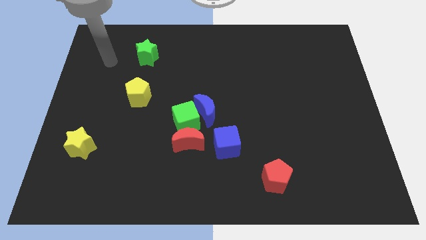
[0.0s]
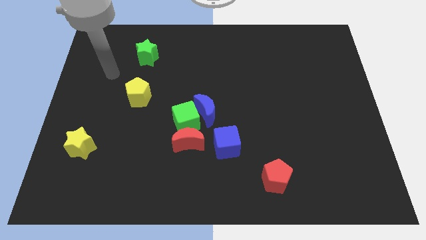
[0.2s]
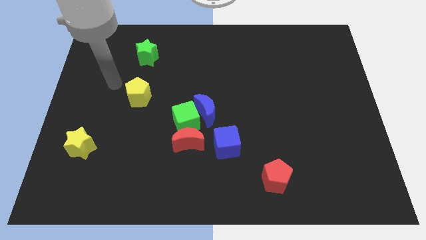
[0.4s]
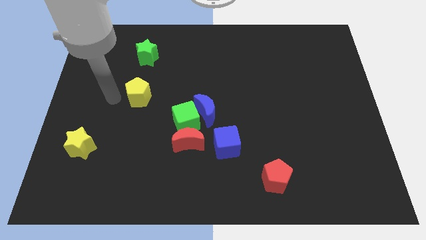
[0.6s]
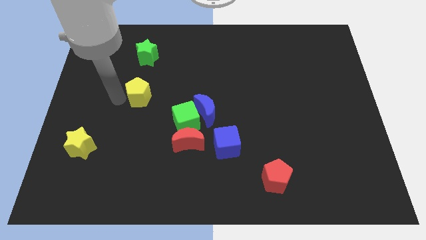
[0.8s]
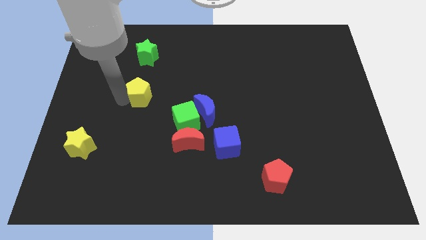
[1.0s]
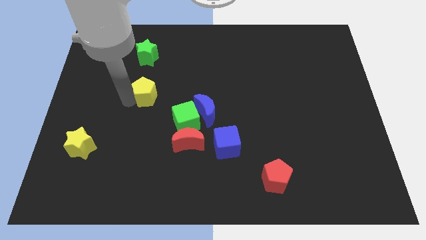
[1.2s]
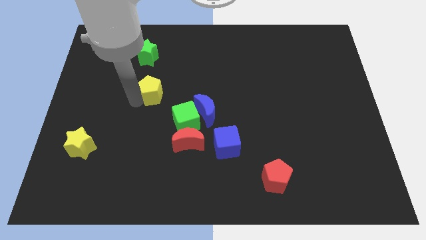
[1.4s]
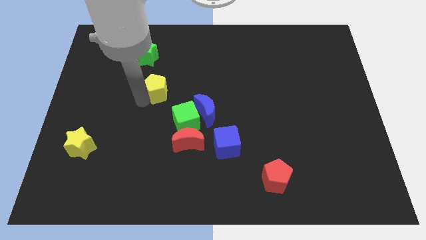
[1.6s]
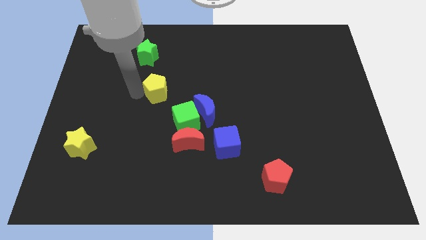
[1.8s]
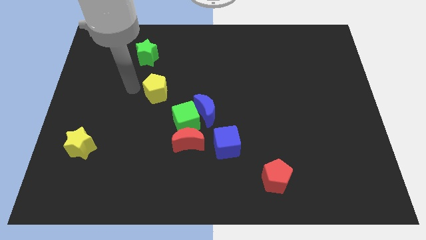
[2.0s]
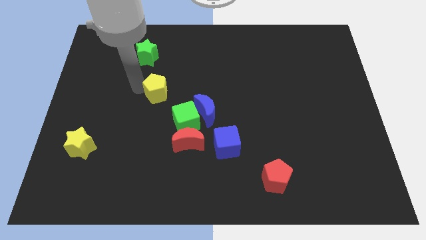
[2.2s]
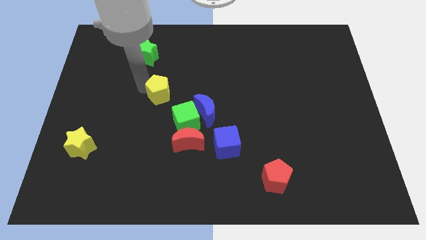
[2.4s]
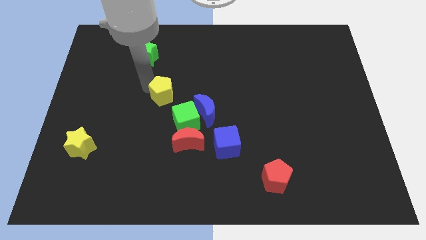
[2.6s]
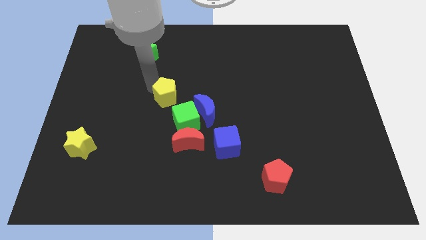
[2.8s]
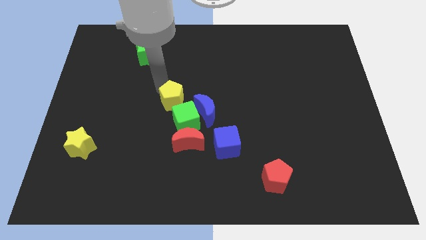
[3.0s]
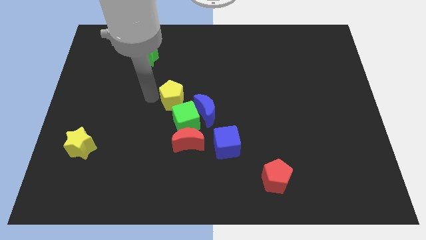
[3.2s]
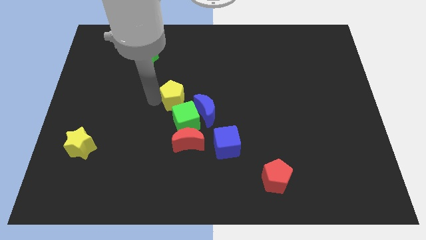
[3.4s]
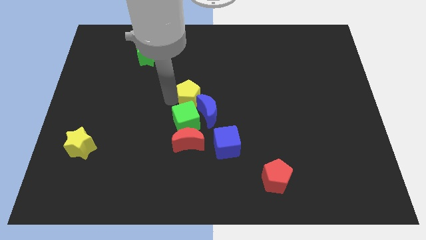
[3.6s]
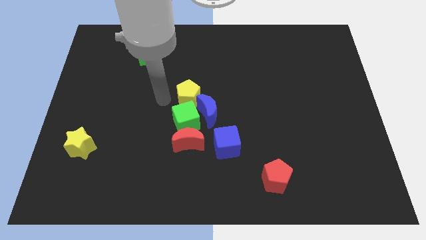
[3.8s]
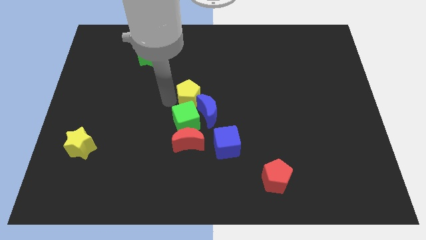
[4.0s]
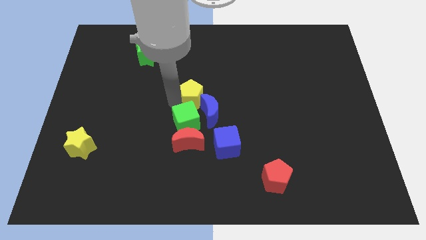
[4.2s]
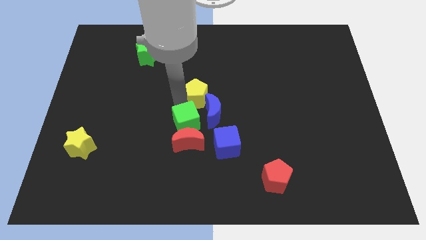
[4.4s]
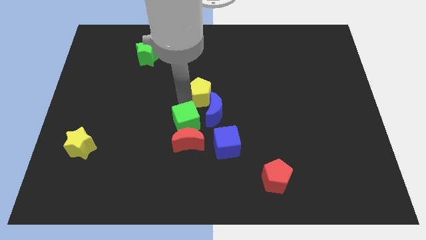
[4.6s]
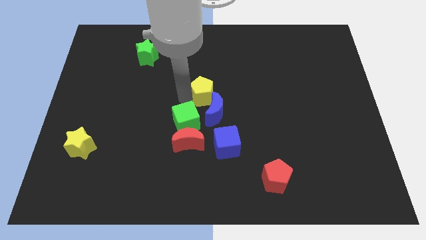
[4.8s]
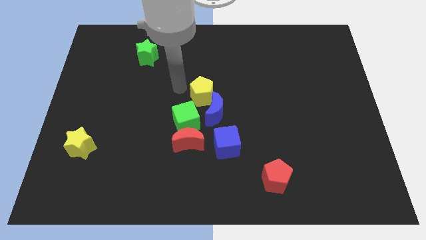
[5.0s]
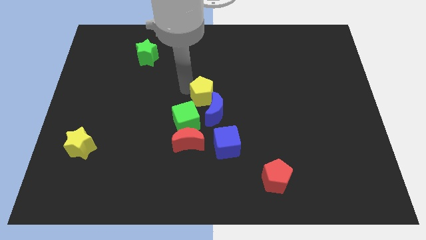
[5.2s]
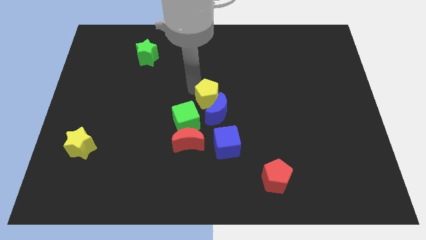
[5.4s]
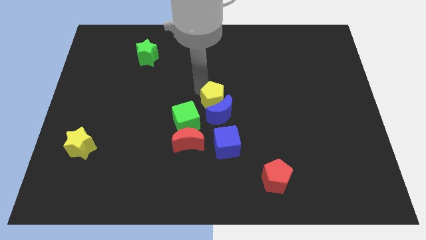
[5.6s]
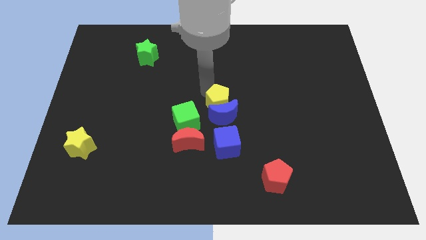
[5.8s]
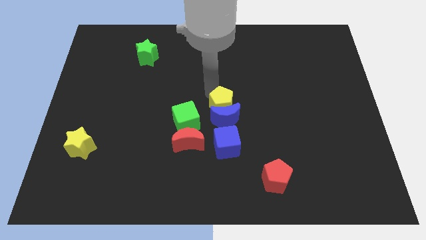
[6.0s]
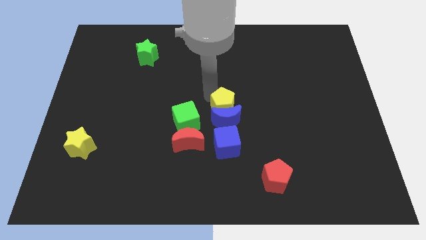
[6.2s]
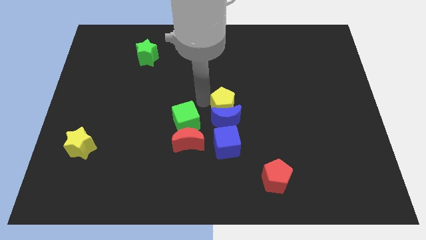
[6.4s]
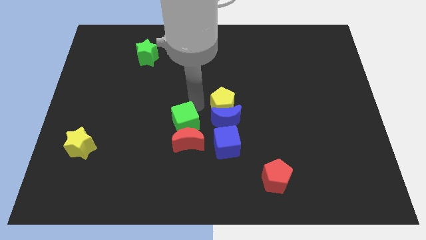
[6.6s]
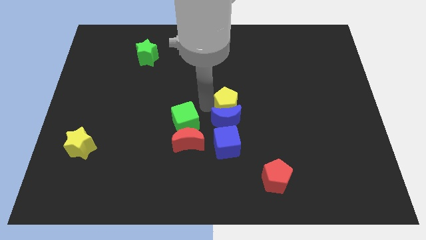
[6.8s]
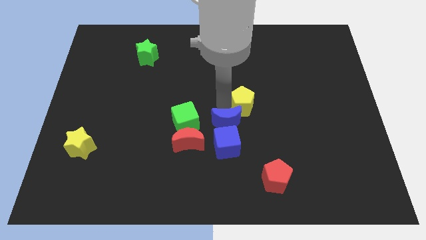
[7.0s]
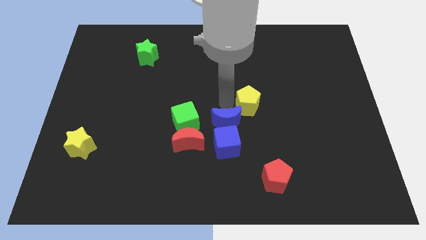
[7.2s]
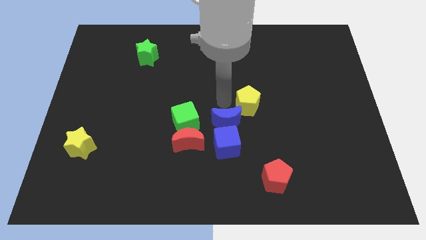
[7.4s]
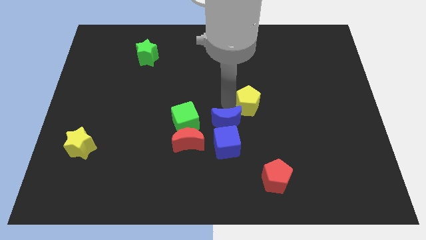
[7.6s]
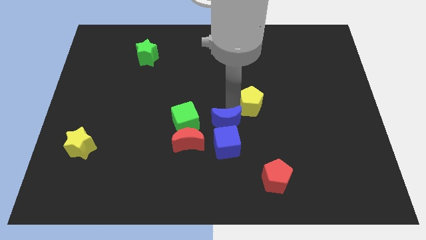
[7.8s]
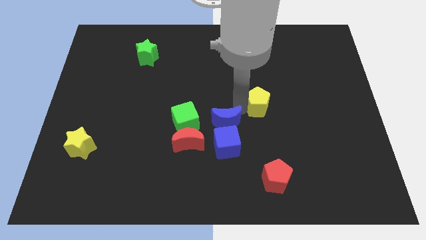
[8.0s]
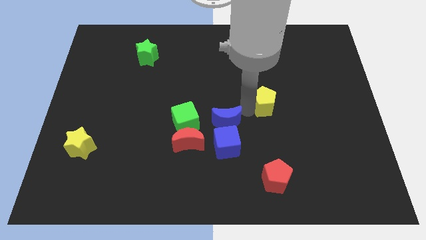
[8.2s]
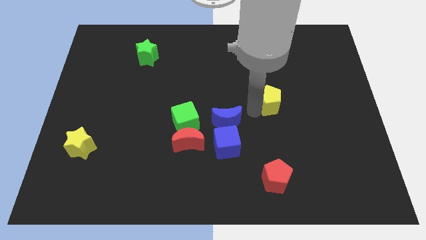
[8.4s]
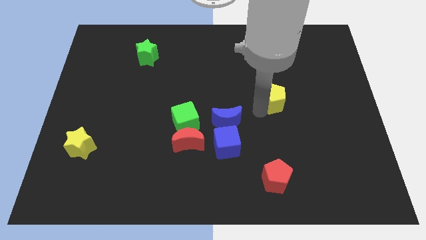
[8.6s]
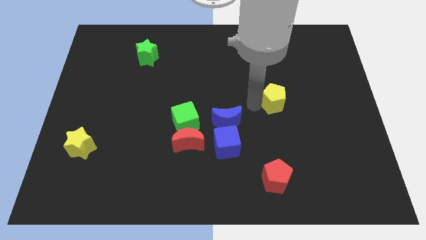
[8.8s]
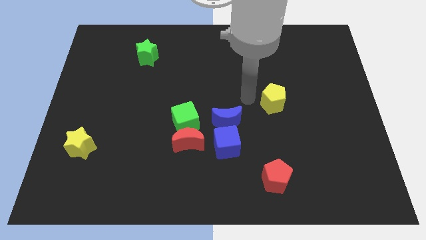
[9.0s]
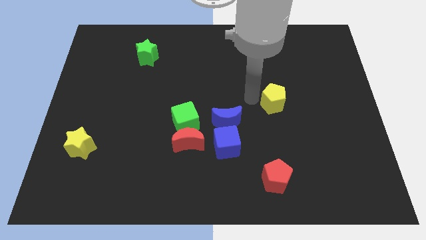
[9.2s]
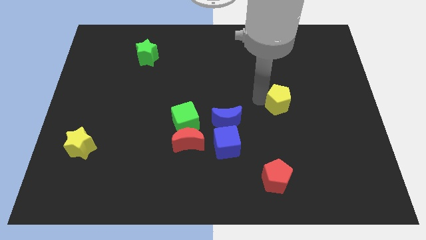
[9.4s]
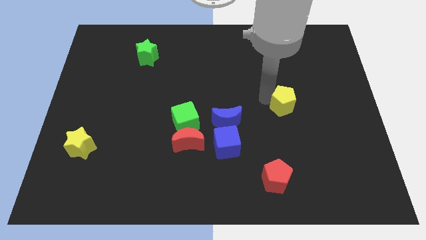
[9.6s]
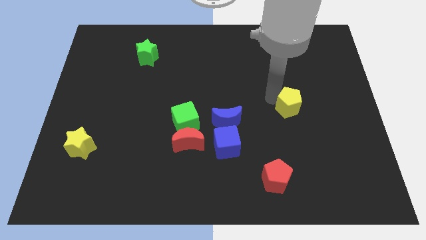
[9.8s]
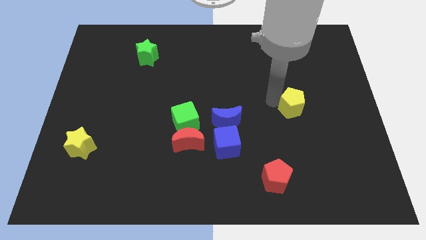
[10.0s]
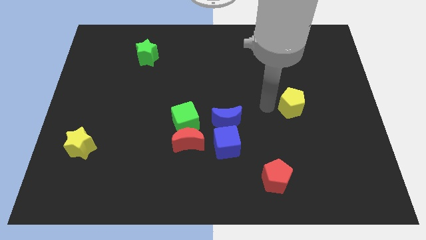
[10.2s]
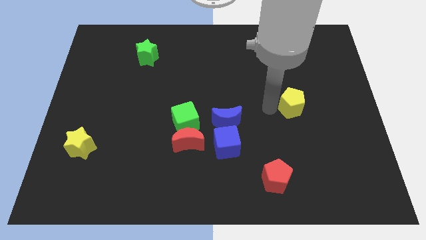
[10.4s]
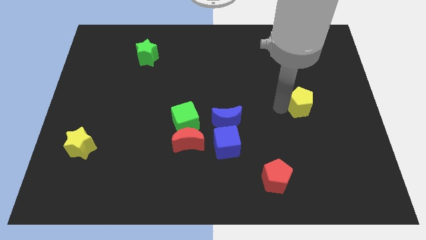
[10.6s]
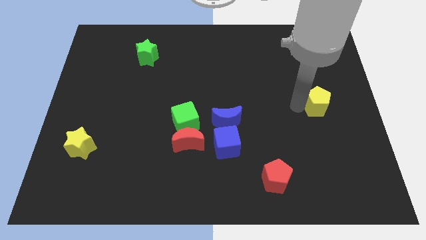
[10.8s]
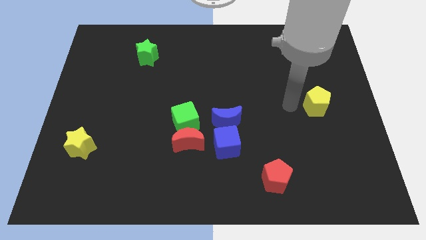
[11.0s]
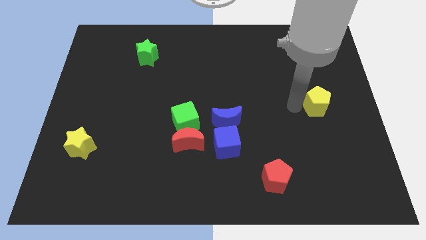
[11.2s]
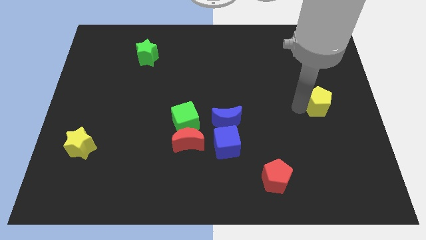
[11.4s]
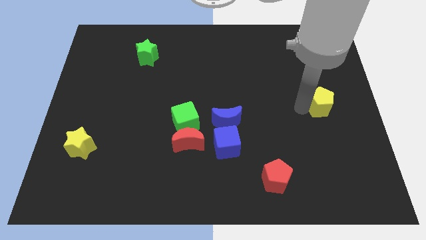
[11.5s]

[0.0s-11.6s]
slide the yellow pentagon to the right side
